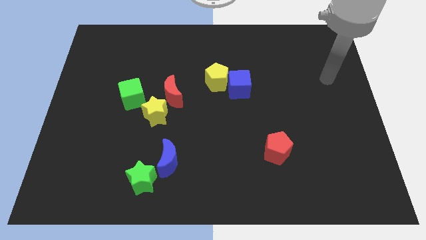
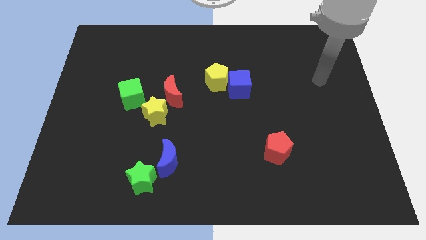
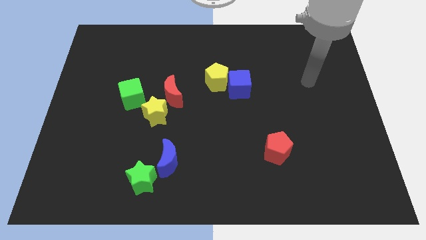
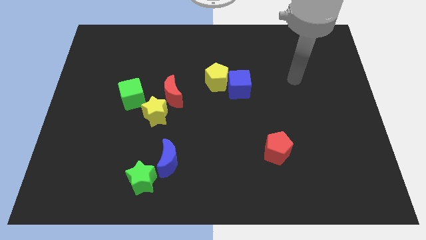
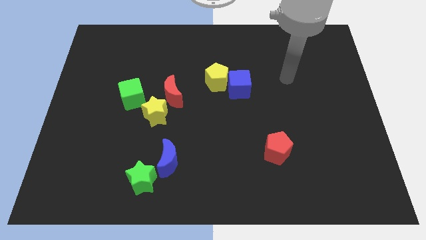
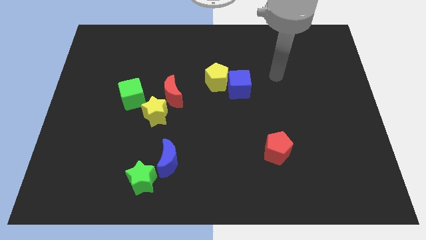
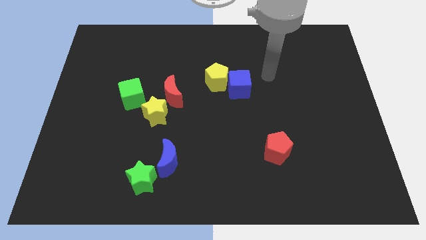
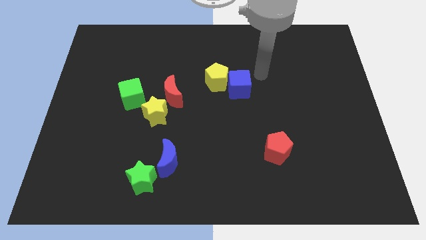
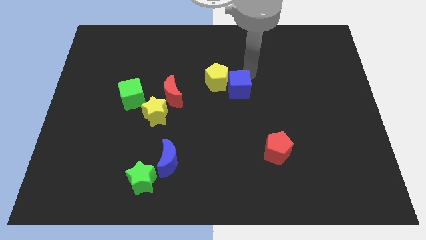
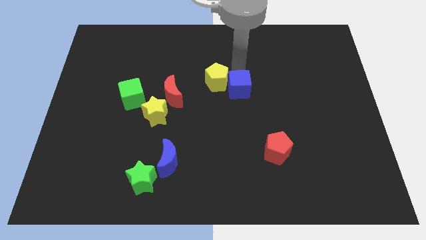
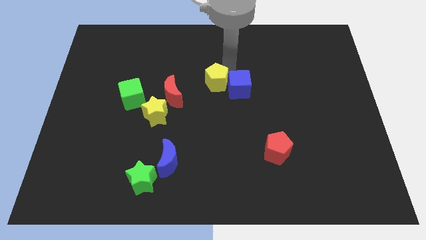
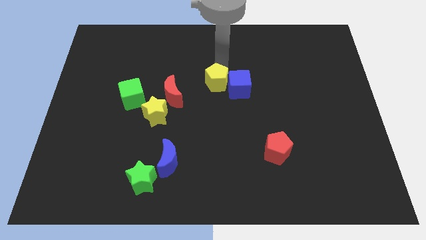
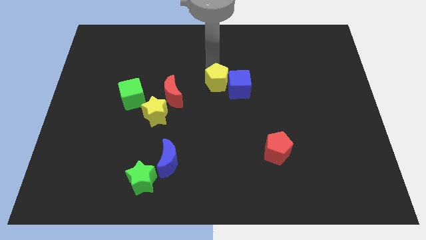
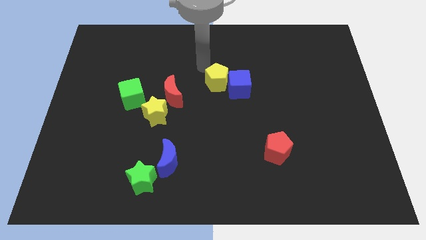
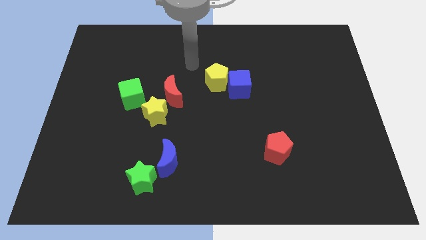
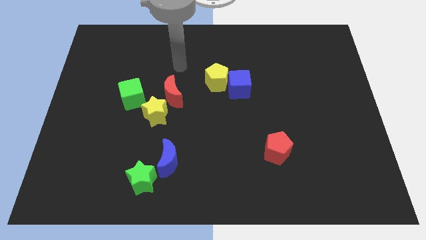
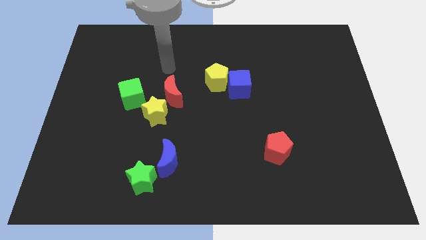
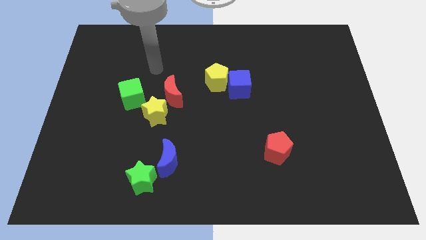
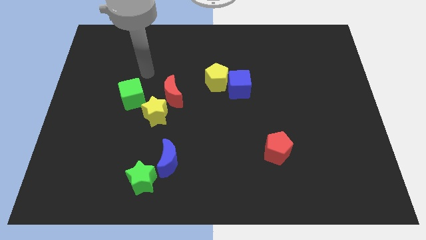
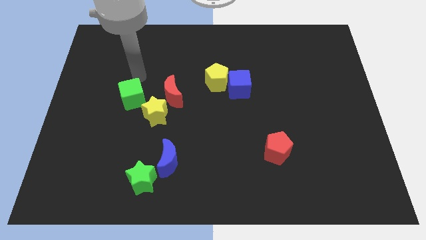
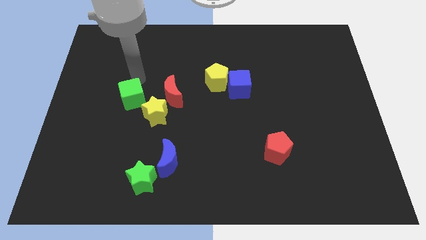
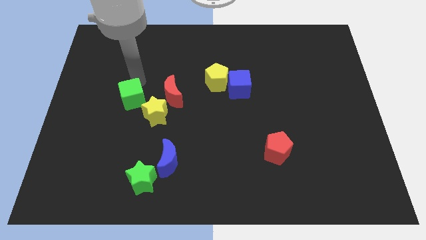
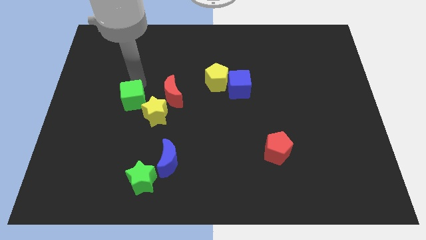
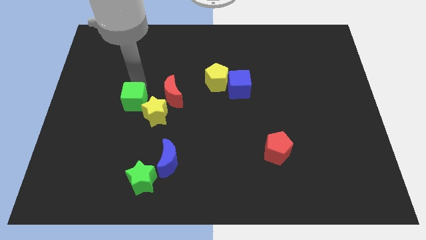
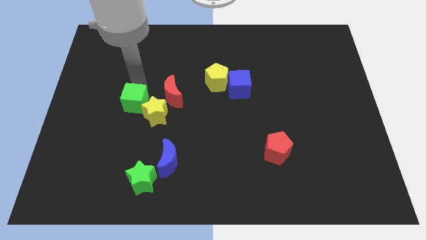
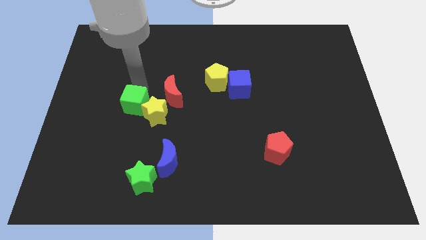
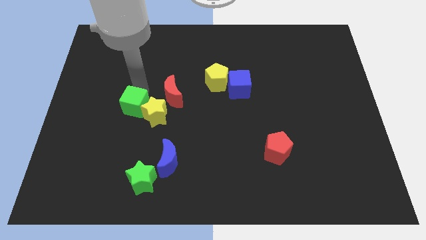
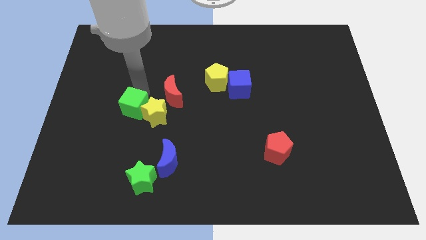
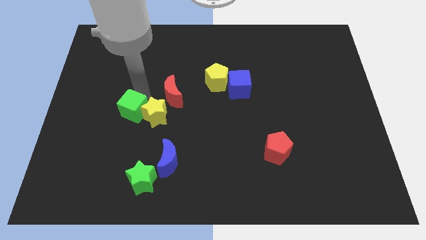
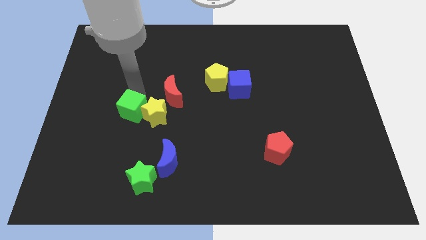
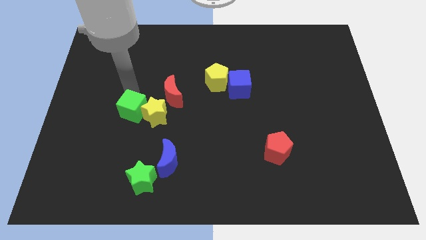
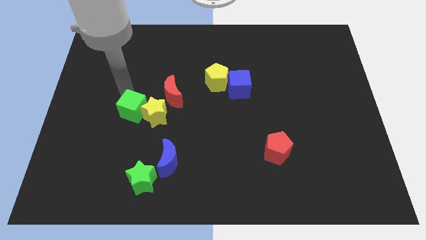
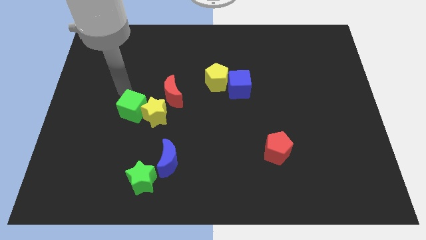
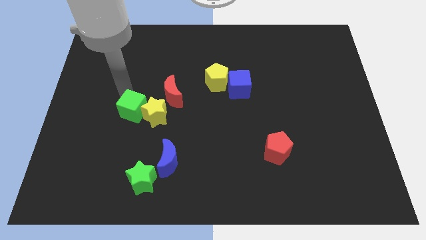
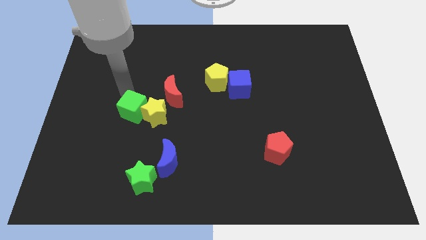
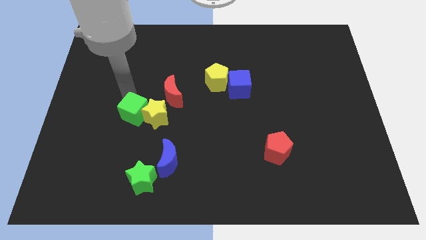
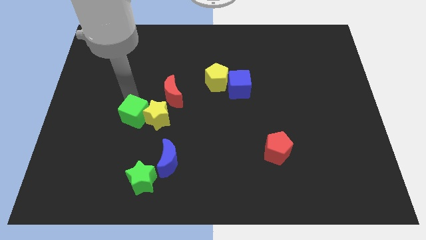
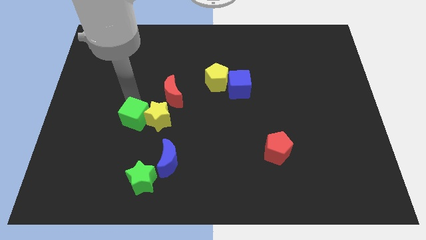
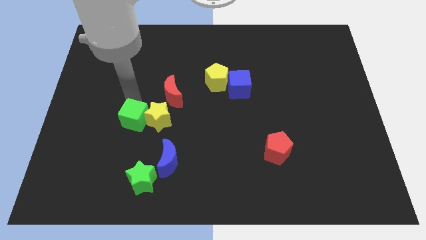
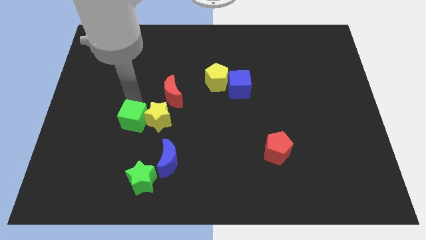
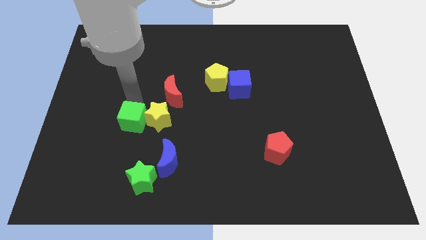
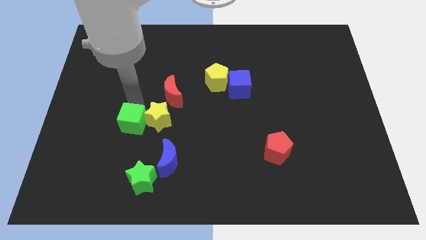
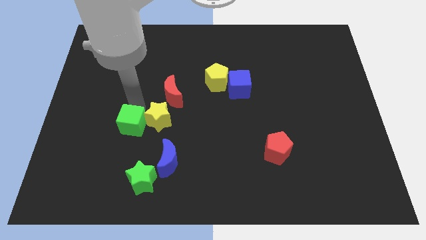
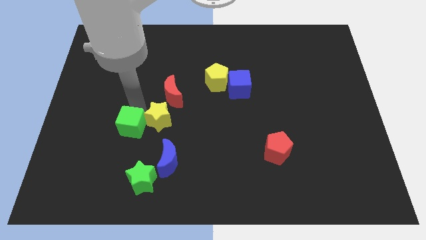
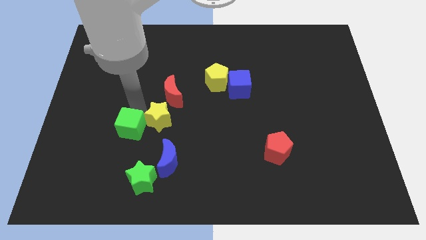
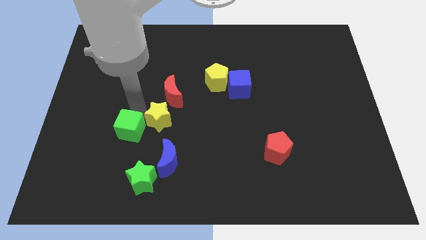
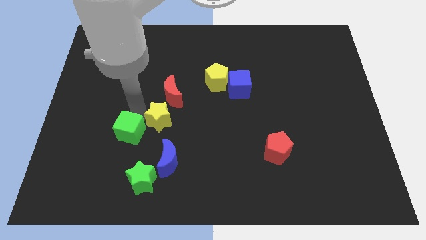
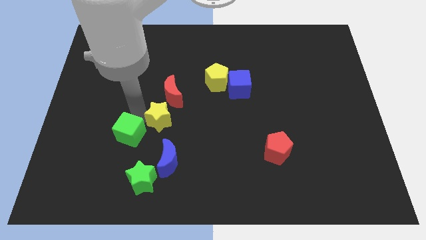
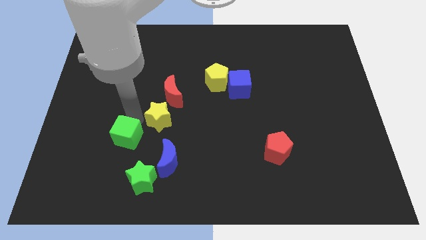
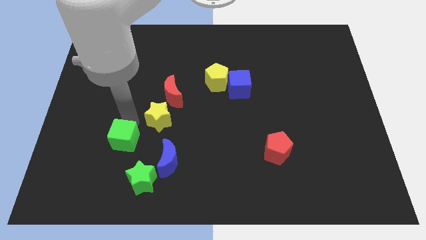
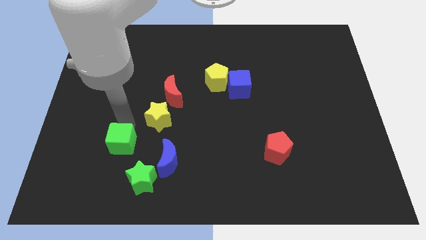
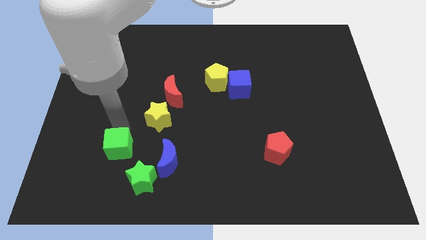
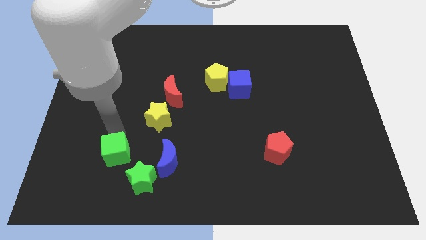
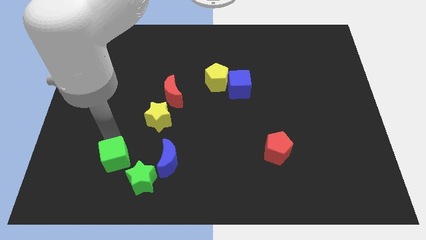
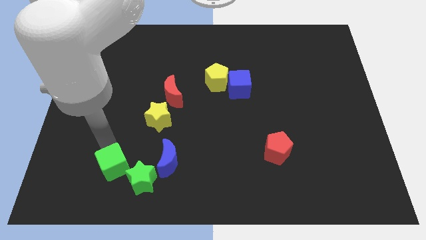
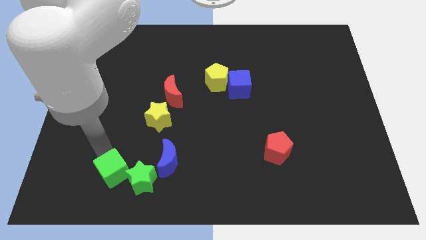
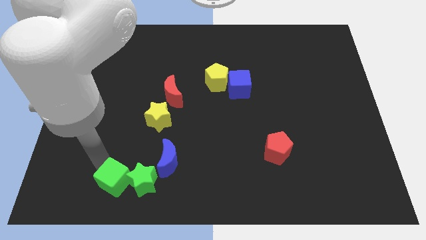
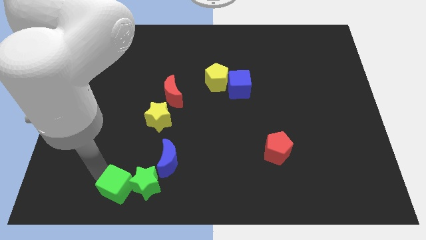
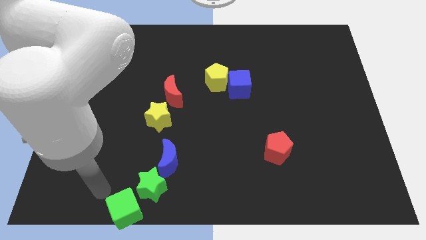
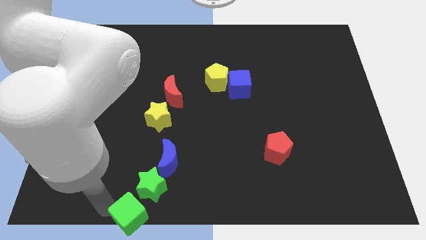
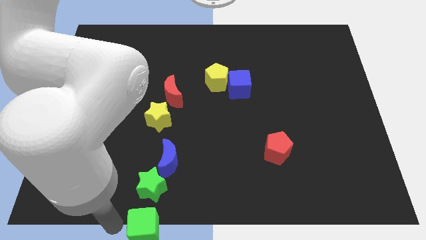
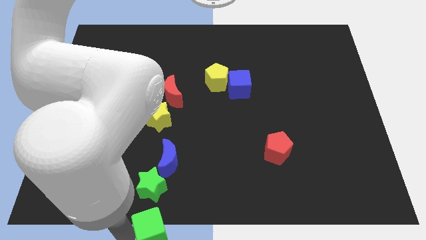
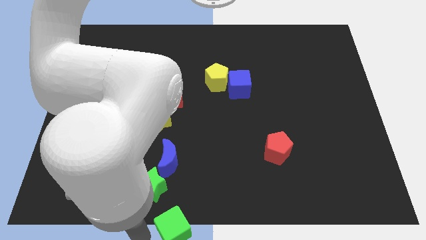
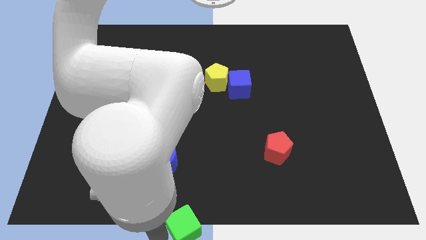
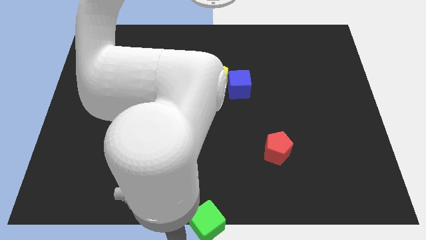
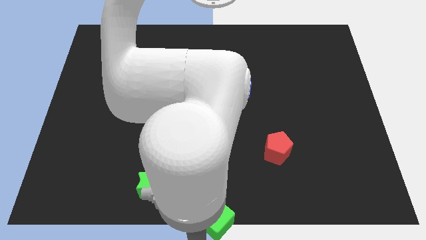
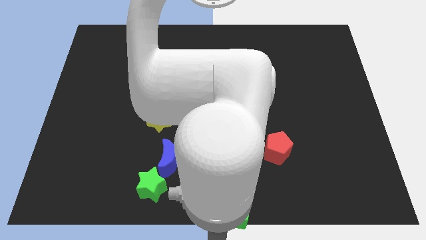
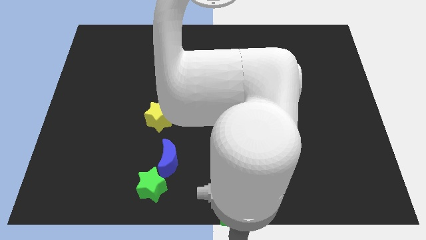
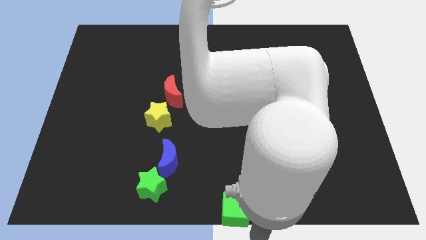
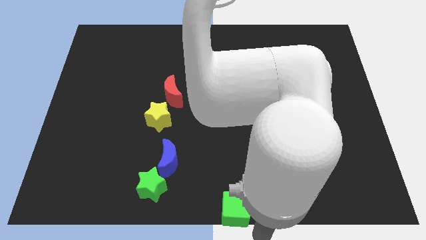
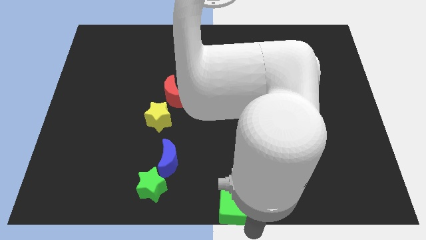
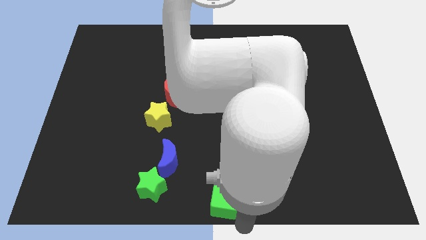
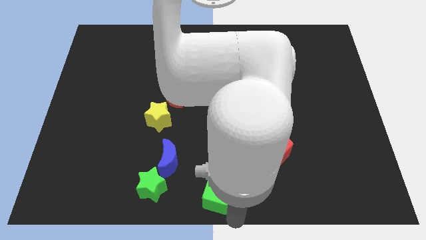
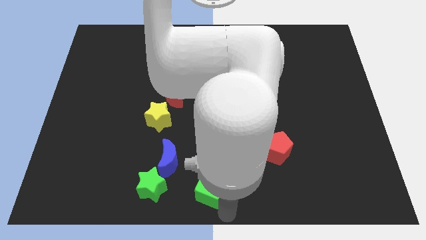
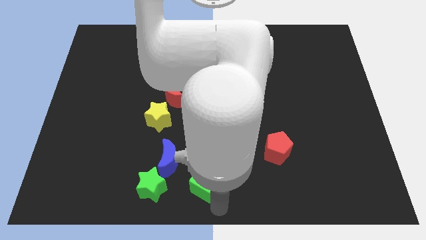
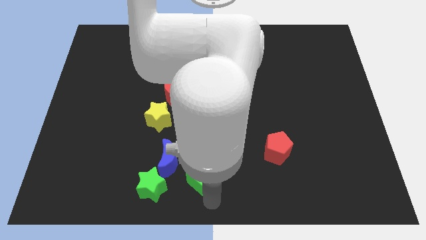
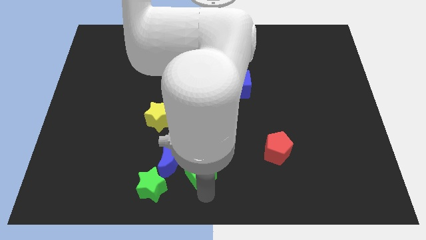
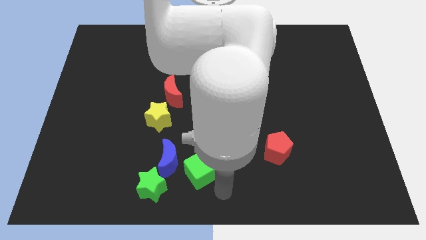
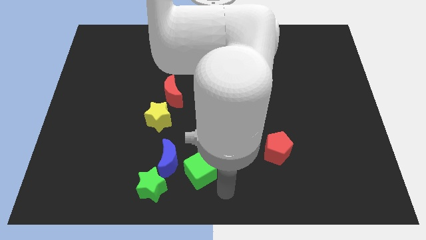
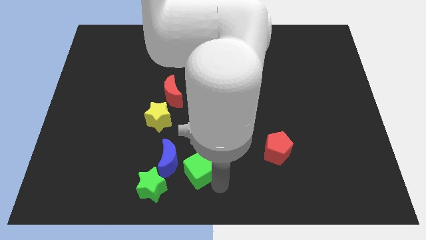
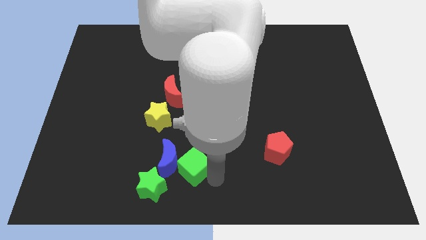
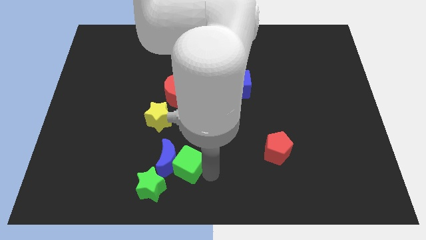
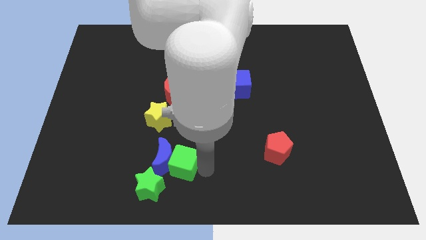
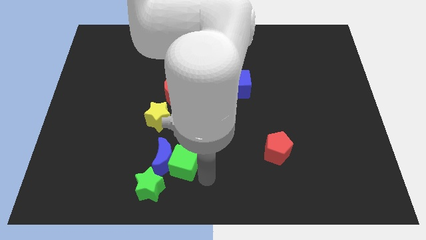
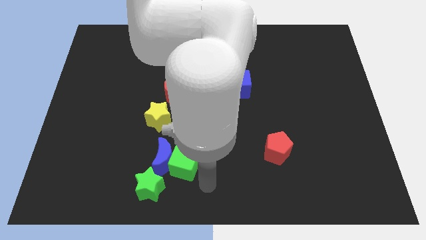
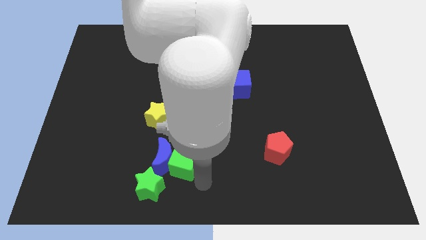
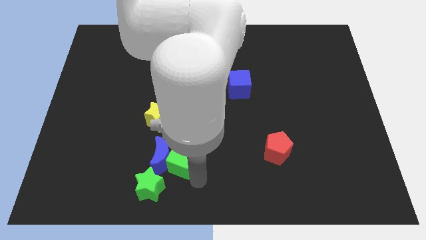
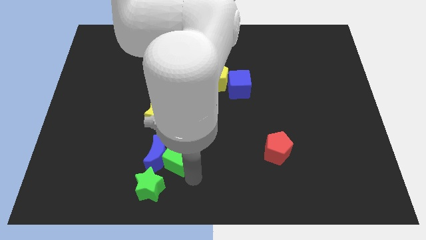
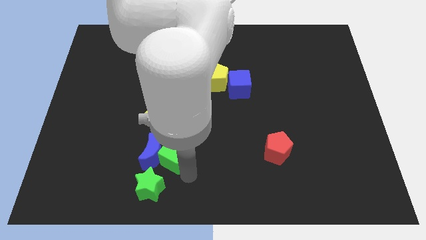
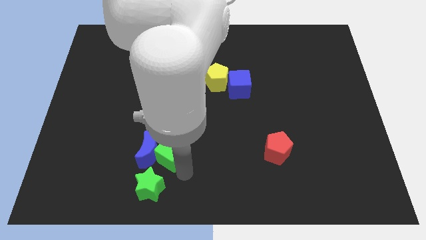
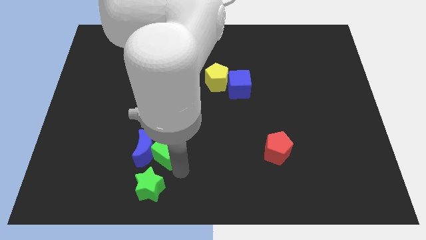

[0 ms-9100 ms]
push the green cube below the red moon
